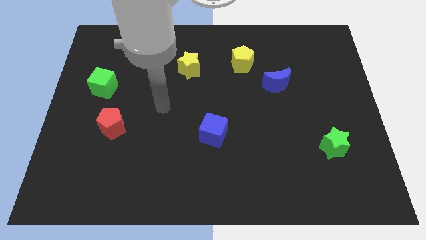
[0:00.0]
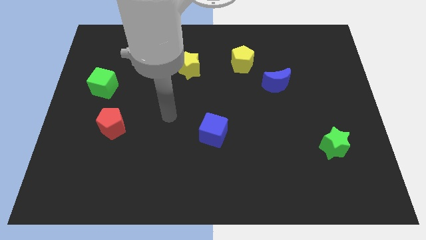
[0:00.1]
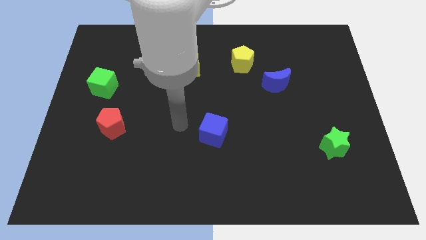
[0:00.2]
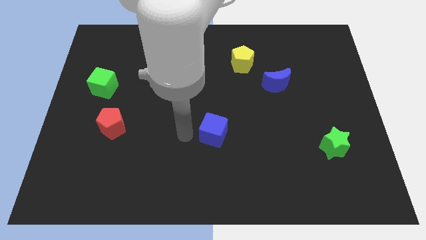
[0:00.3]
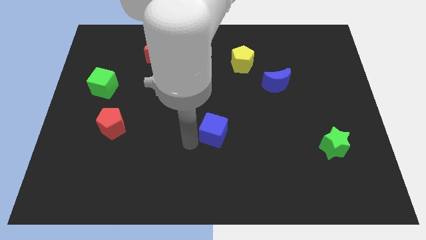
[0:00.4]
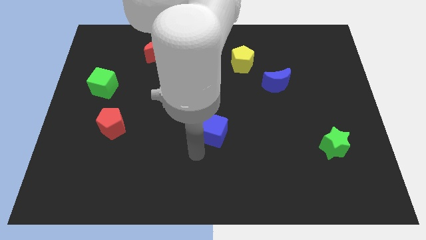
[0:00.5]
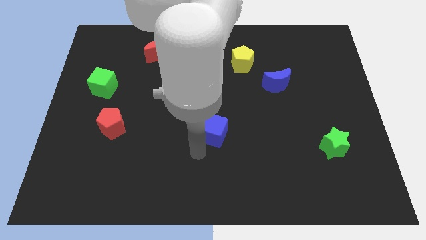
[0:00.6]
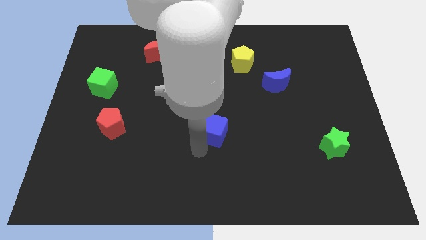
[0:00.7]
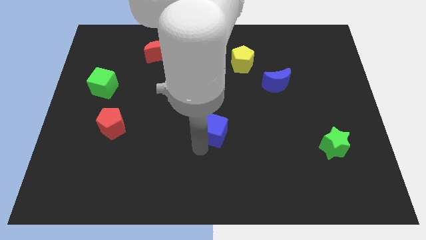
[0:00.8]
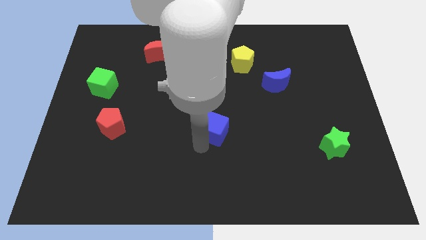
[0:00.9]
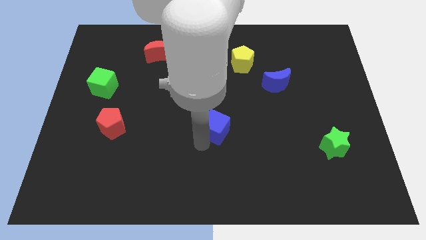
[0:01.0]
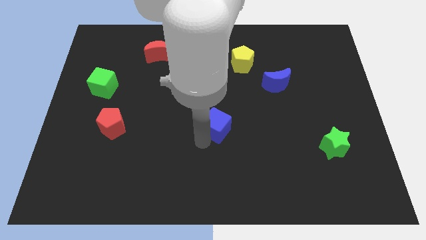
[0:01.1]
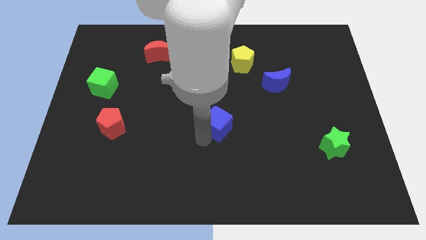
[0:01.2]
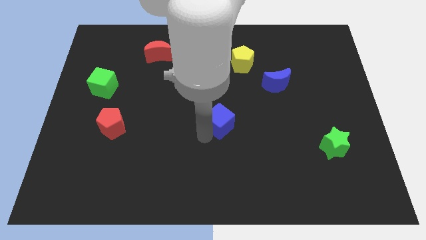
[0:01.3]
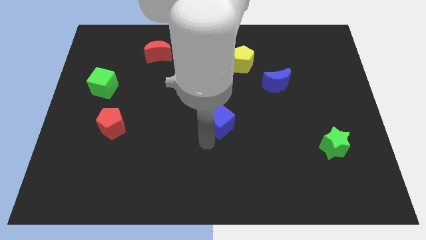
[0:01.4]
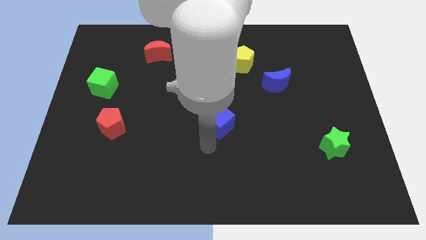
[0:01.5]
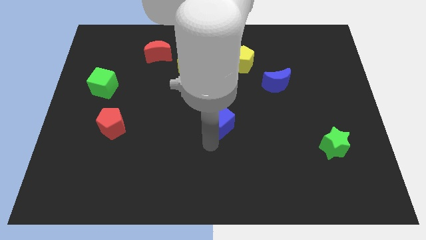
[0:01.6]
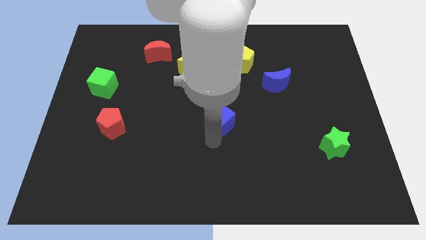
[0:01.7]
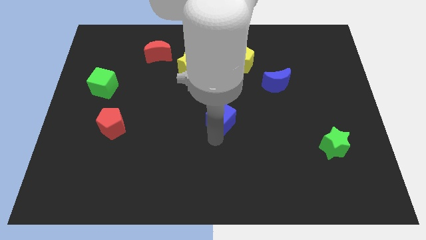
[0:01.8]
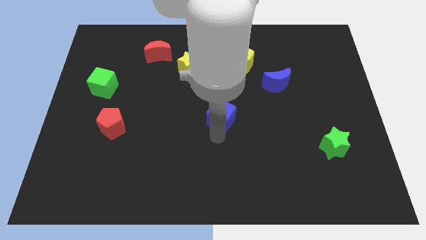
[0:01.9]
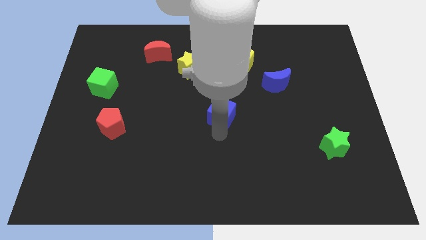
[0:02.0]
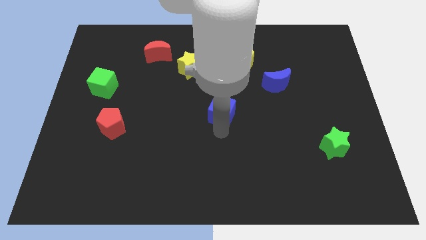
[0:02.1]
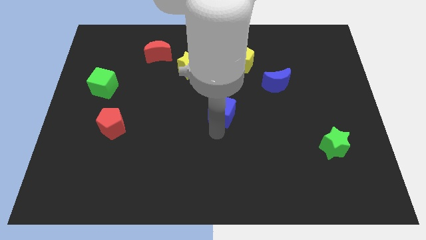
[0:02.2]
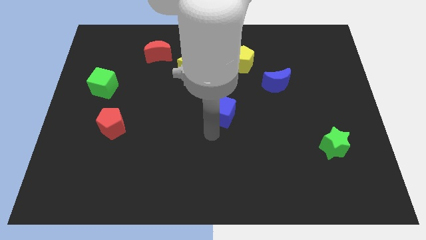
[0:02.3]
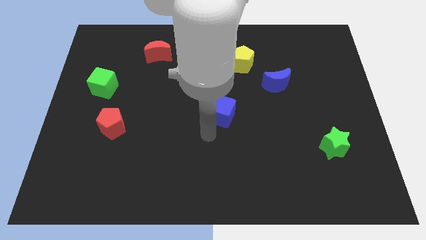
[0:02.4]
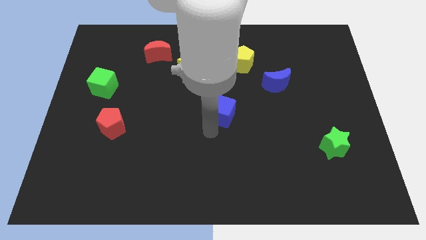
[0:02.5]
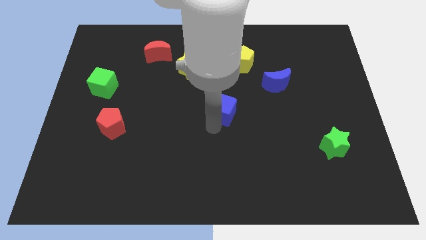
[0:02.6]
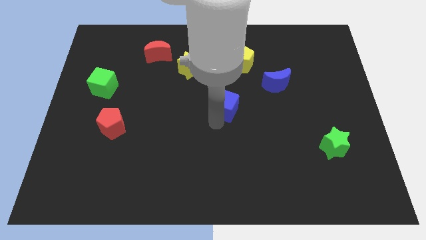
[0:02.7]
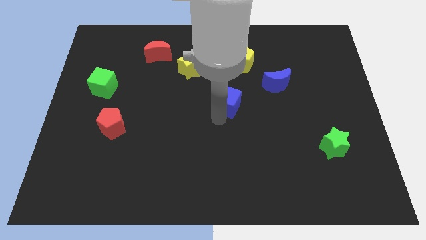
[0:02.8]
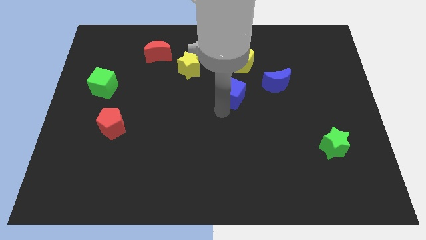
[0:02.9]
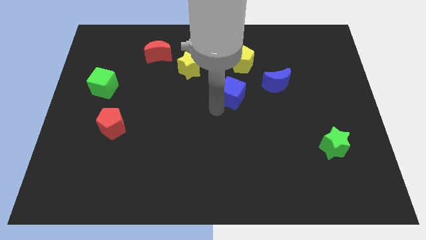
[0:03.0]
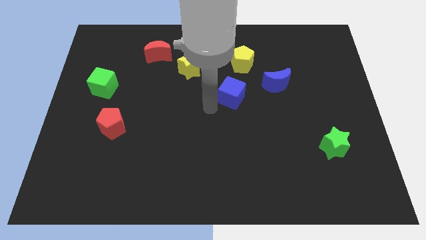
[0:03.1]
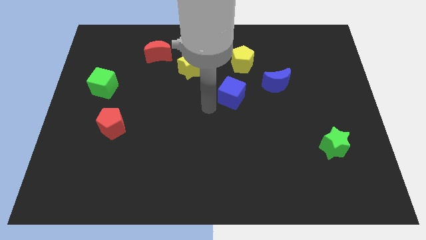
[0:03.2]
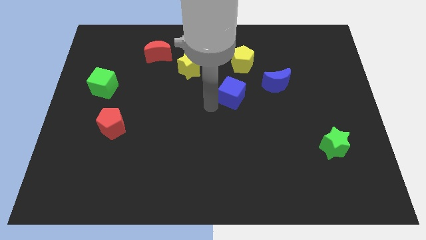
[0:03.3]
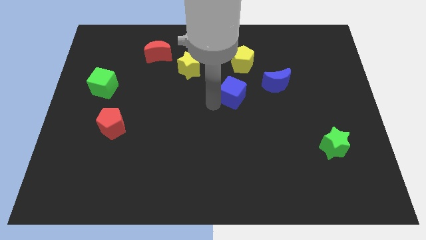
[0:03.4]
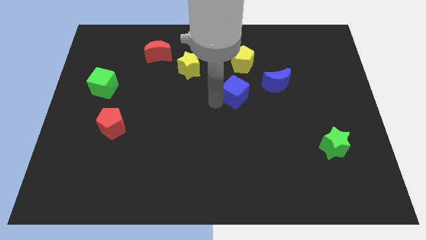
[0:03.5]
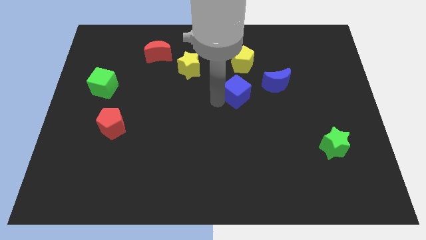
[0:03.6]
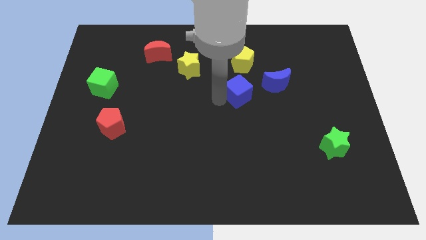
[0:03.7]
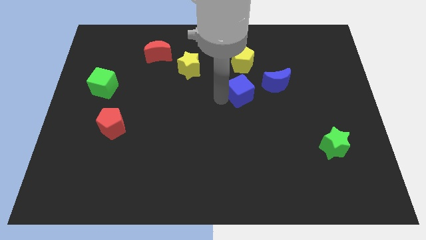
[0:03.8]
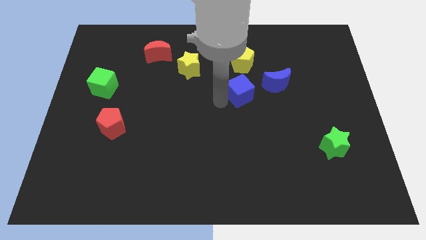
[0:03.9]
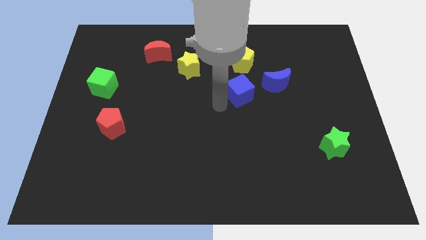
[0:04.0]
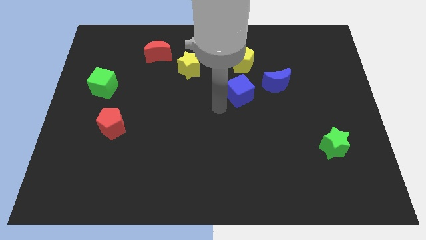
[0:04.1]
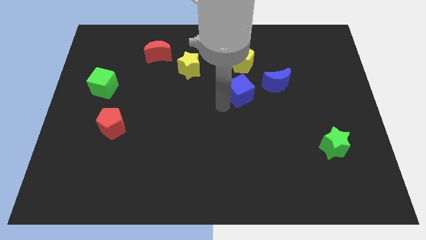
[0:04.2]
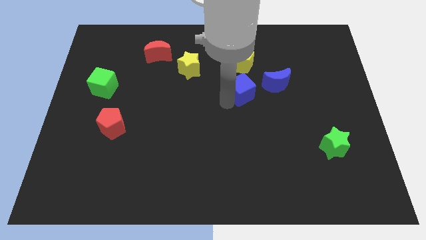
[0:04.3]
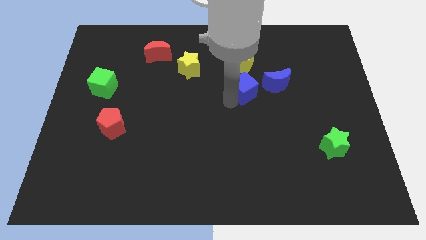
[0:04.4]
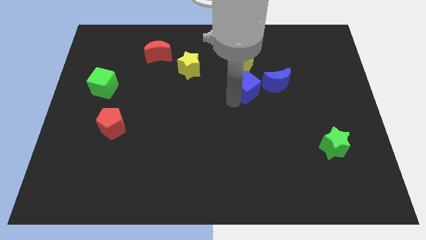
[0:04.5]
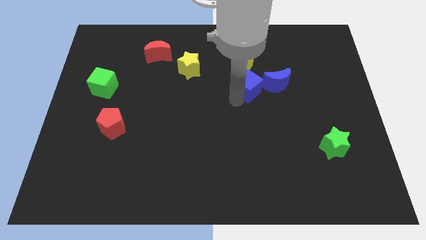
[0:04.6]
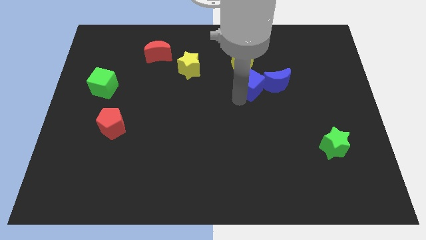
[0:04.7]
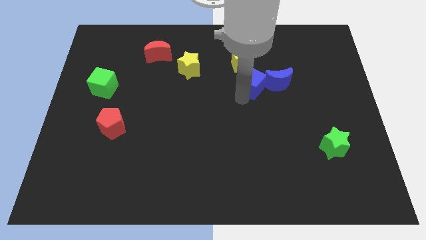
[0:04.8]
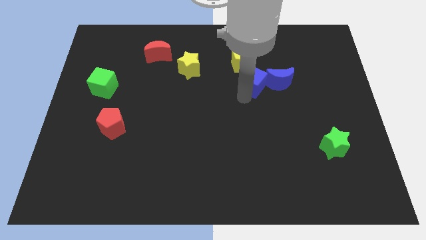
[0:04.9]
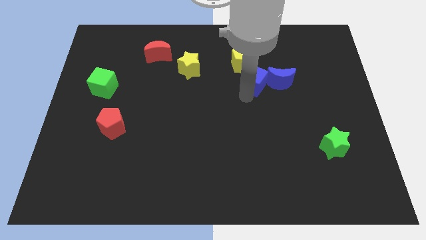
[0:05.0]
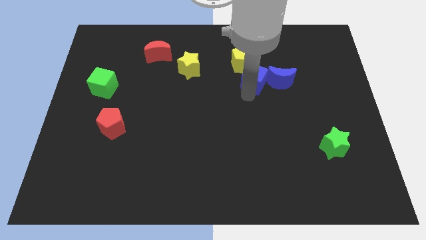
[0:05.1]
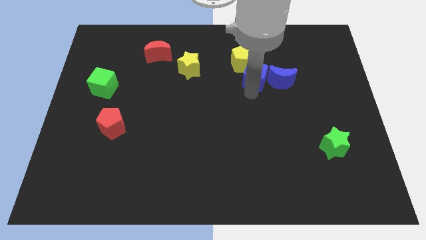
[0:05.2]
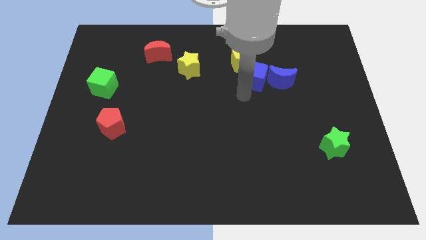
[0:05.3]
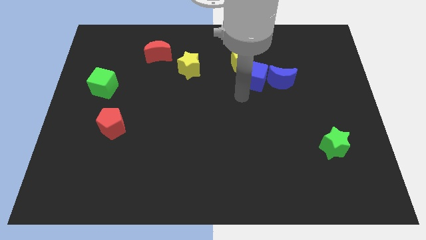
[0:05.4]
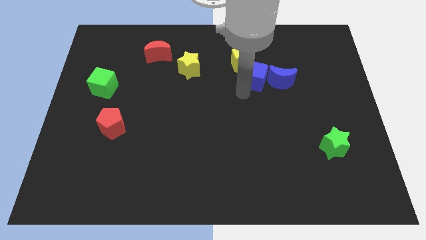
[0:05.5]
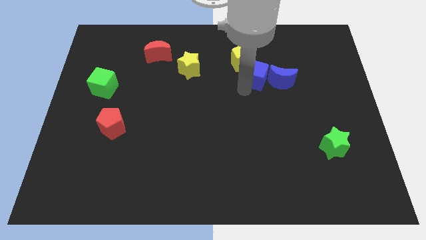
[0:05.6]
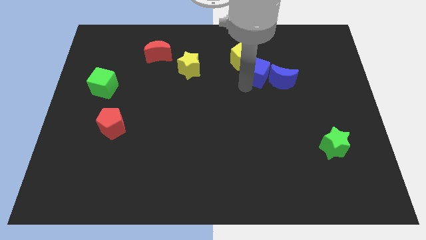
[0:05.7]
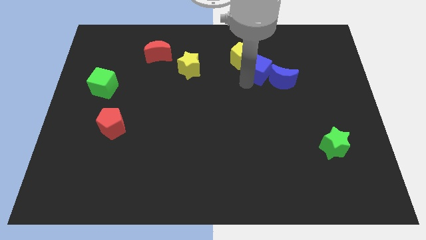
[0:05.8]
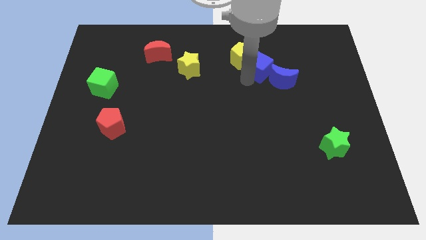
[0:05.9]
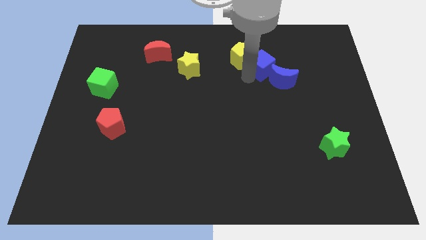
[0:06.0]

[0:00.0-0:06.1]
put the blue cube to the top of the blue moon

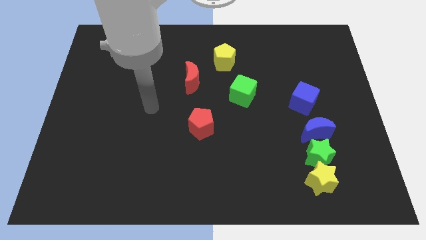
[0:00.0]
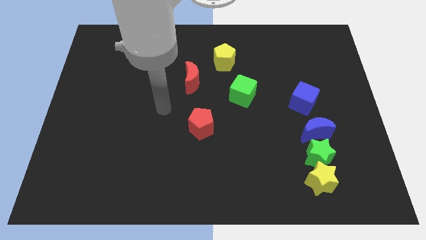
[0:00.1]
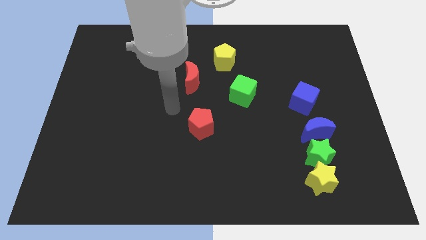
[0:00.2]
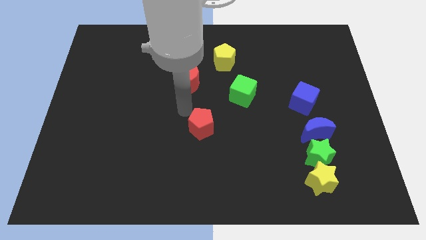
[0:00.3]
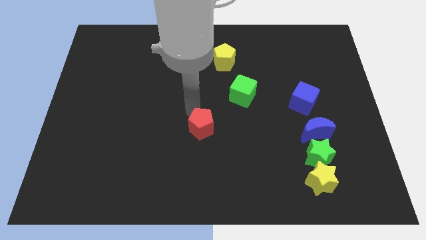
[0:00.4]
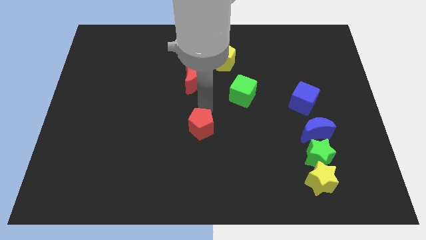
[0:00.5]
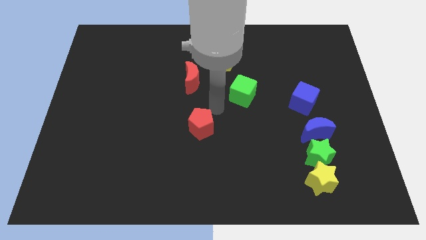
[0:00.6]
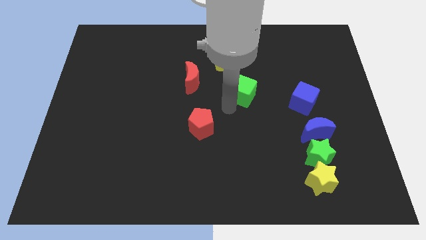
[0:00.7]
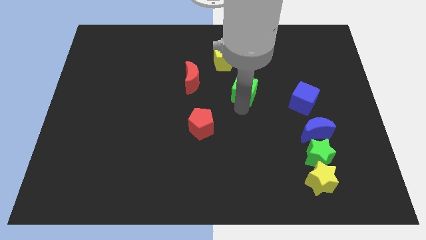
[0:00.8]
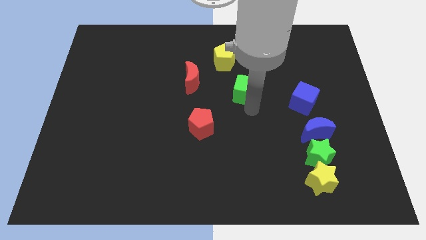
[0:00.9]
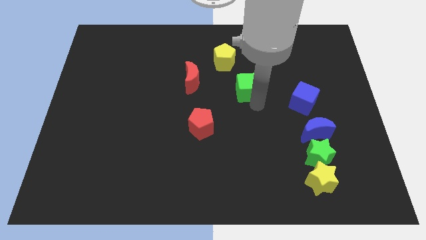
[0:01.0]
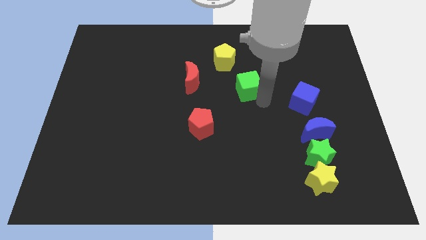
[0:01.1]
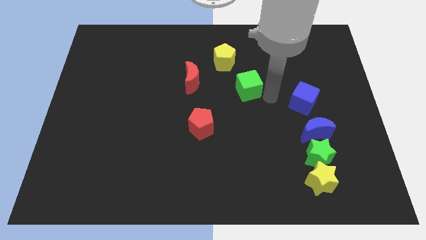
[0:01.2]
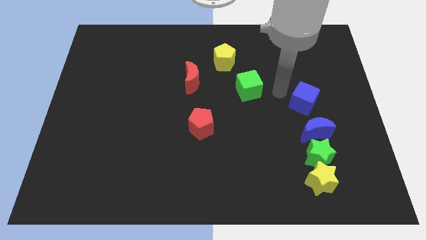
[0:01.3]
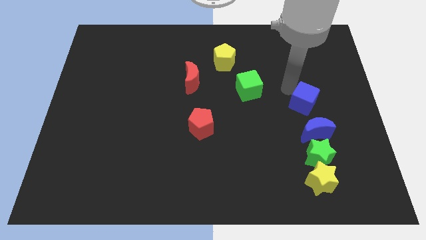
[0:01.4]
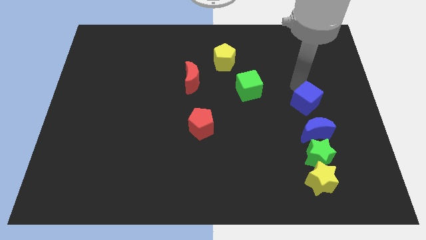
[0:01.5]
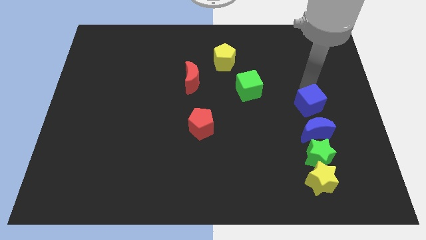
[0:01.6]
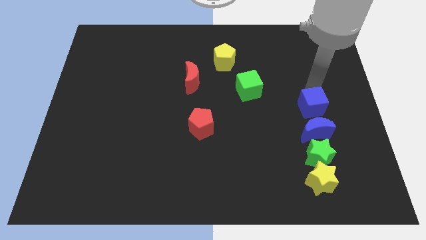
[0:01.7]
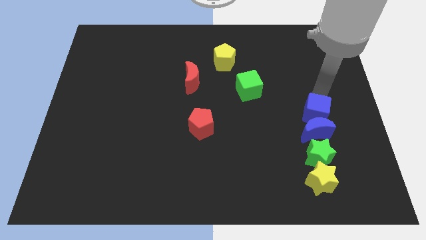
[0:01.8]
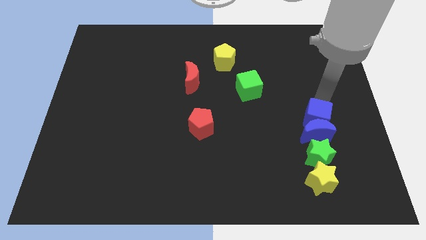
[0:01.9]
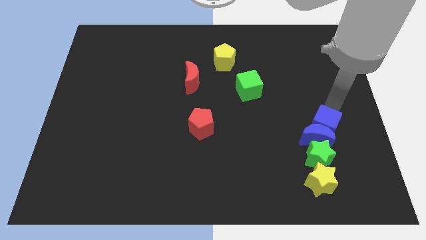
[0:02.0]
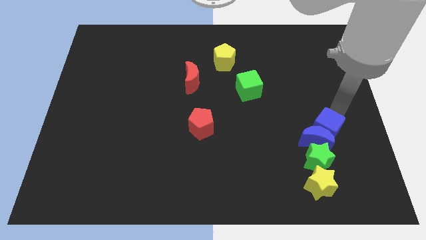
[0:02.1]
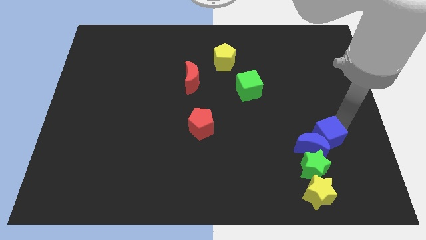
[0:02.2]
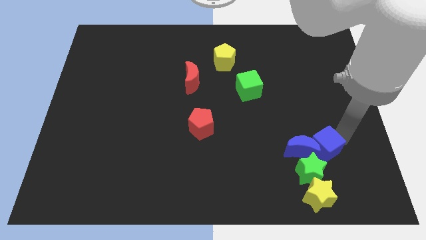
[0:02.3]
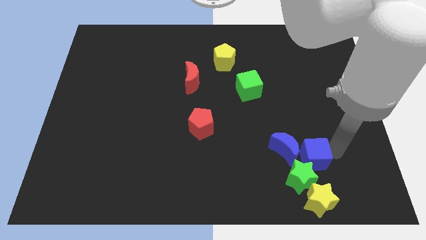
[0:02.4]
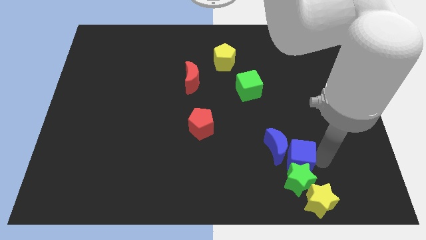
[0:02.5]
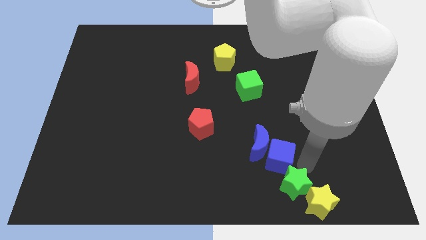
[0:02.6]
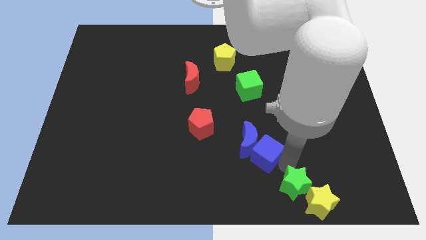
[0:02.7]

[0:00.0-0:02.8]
move the blue moon to the bottom of the green cube
